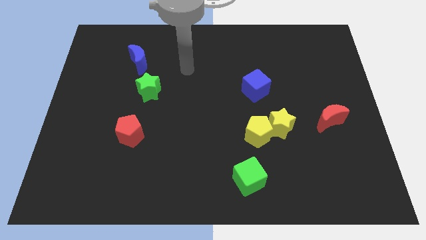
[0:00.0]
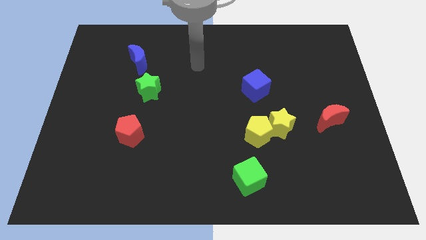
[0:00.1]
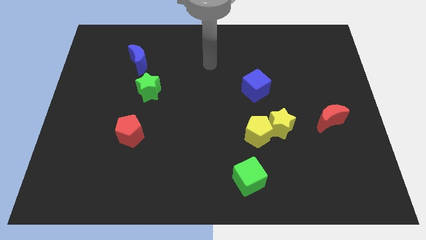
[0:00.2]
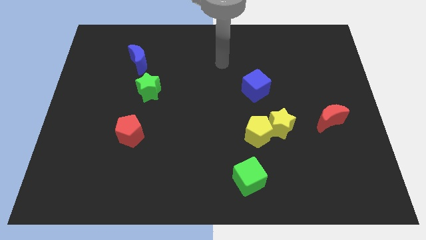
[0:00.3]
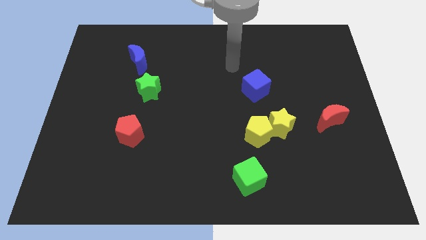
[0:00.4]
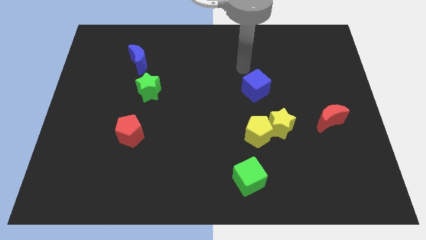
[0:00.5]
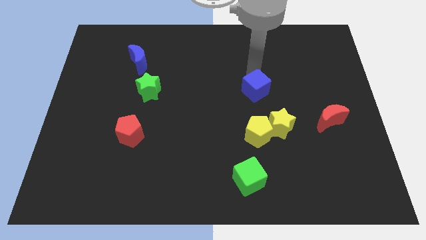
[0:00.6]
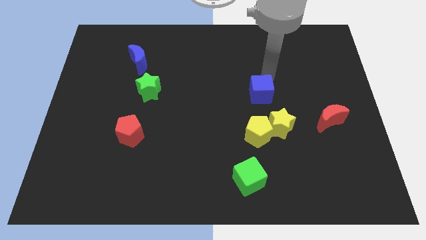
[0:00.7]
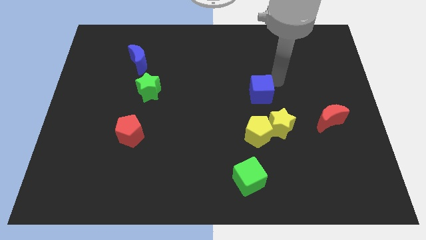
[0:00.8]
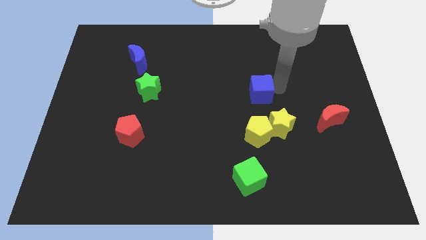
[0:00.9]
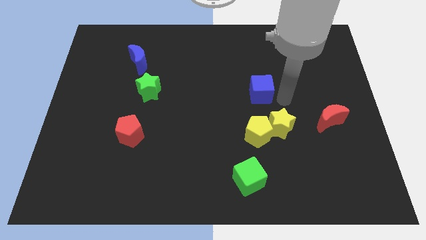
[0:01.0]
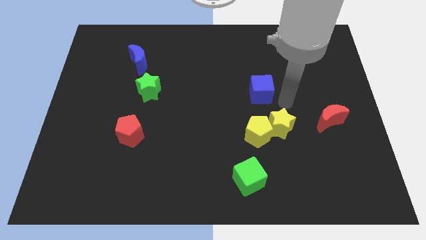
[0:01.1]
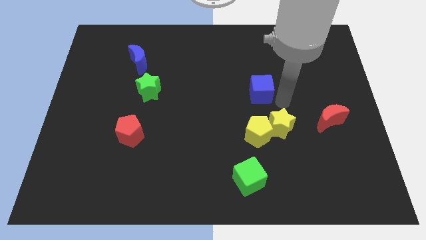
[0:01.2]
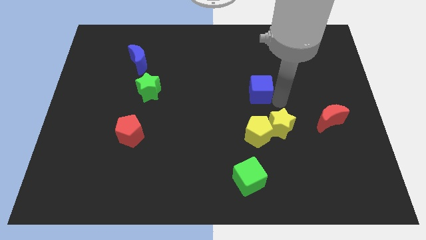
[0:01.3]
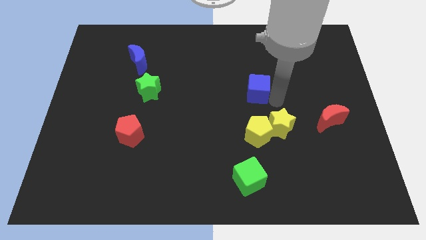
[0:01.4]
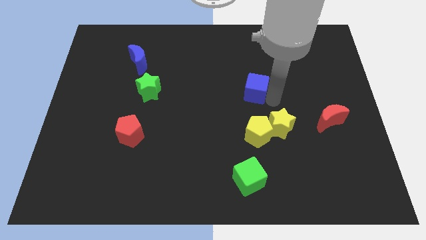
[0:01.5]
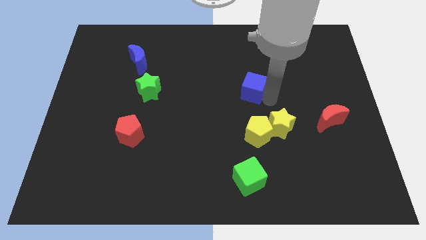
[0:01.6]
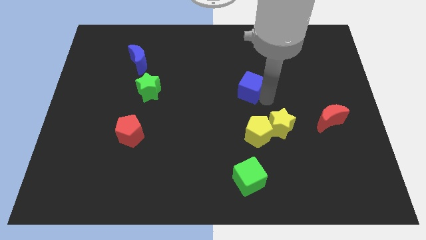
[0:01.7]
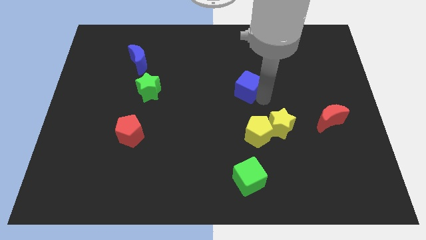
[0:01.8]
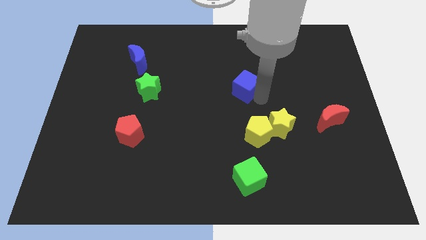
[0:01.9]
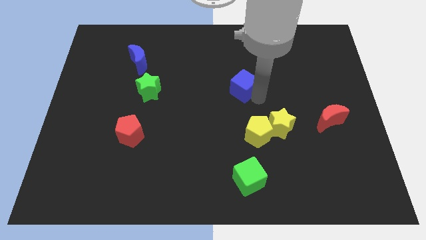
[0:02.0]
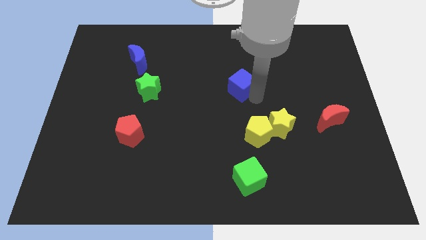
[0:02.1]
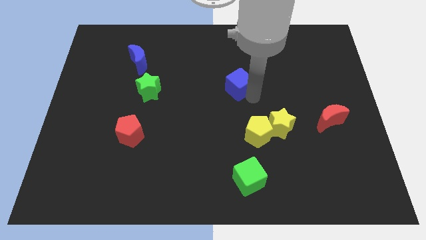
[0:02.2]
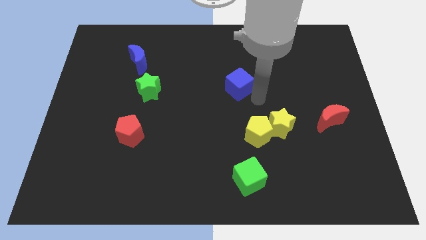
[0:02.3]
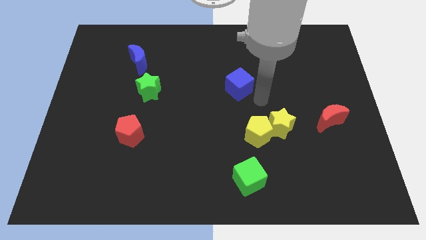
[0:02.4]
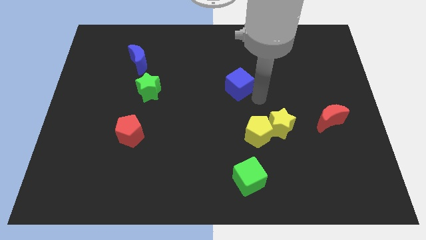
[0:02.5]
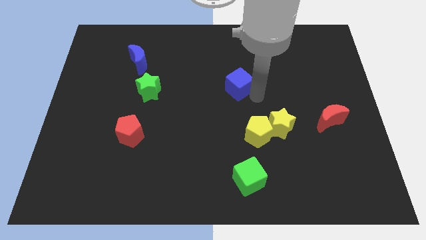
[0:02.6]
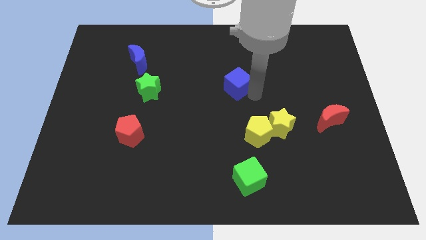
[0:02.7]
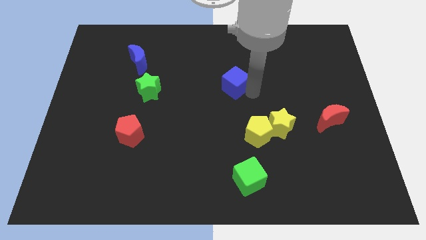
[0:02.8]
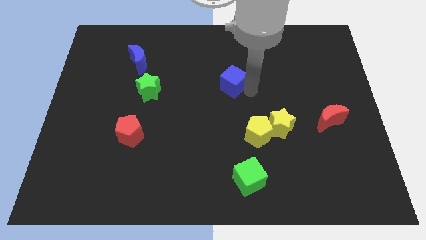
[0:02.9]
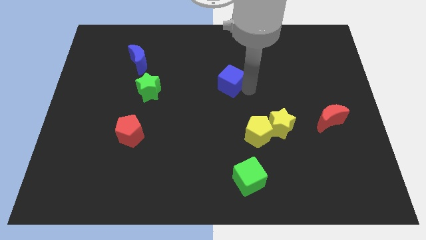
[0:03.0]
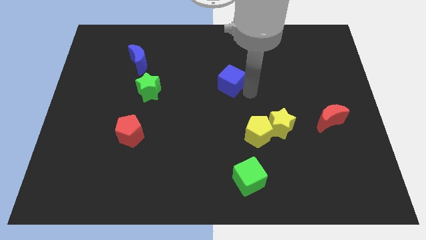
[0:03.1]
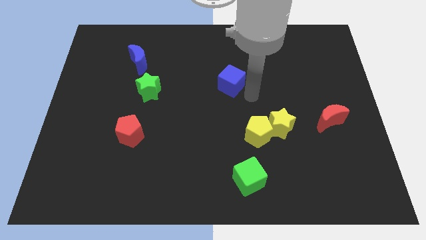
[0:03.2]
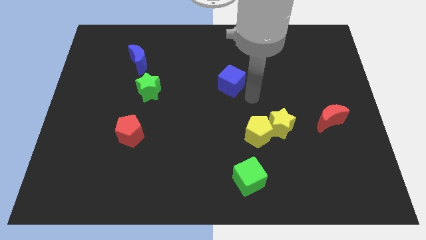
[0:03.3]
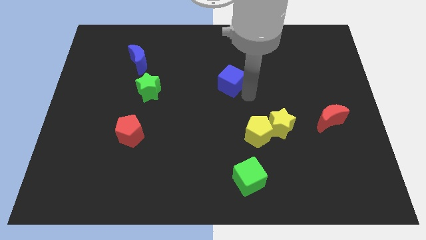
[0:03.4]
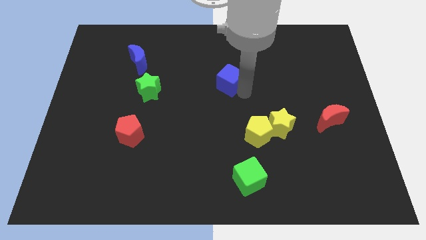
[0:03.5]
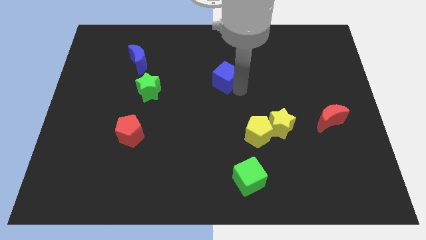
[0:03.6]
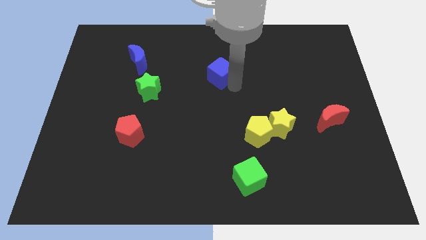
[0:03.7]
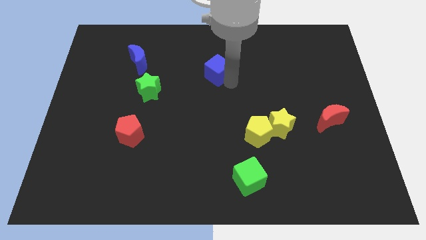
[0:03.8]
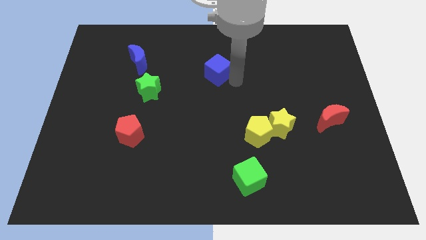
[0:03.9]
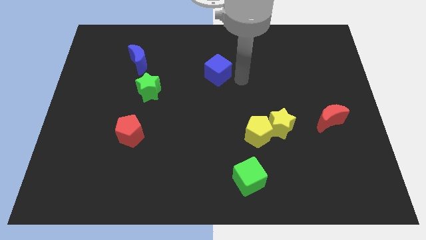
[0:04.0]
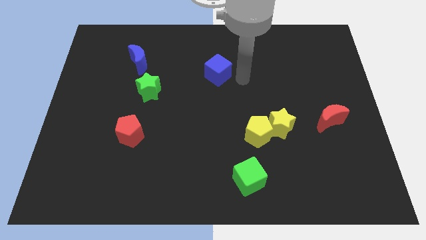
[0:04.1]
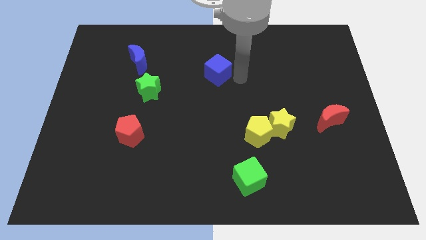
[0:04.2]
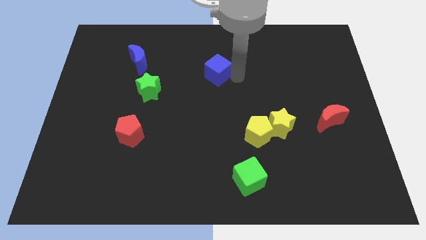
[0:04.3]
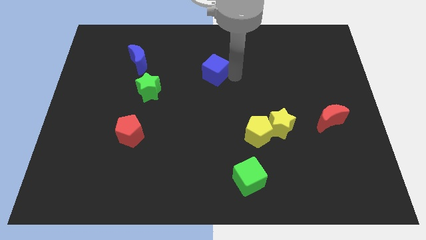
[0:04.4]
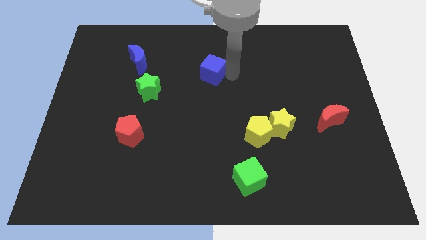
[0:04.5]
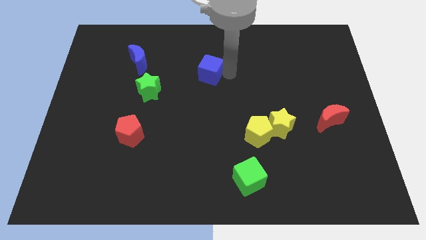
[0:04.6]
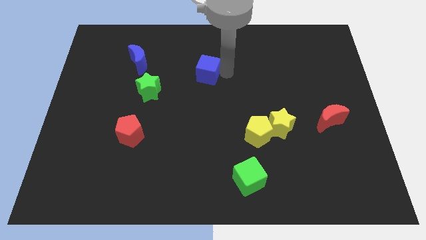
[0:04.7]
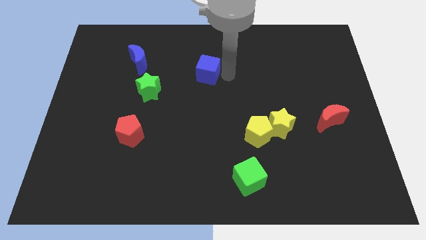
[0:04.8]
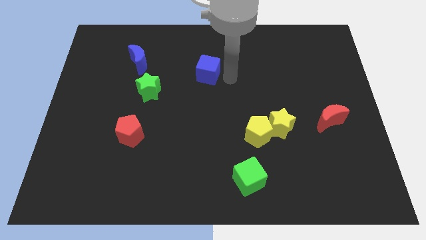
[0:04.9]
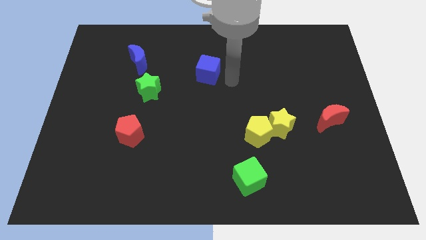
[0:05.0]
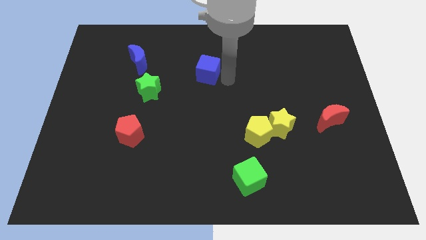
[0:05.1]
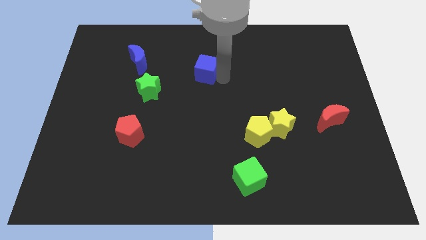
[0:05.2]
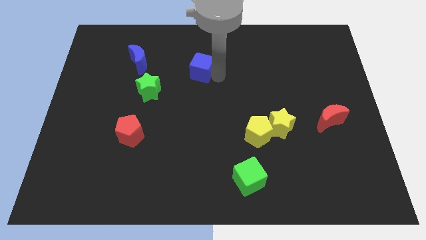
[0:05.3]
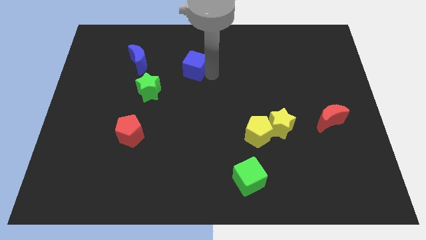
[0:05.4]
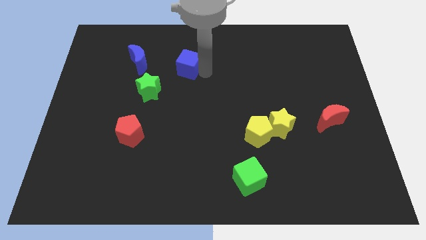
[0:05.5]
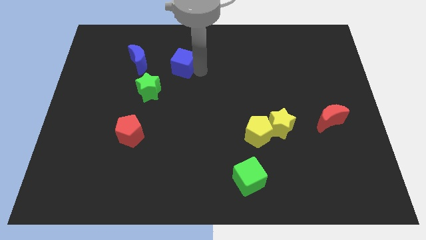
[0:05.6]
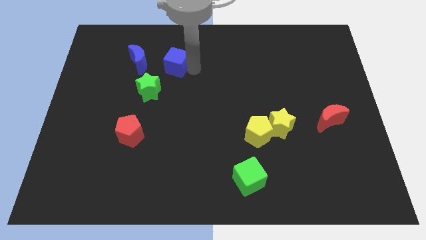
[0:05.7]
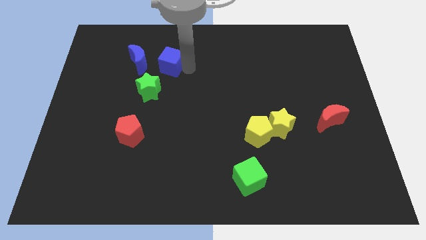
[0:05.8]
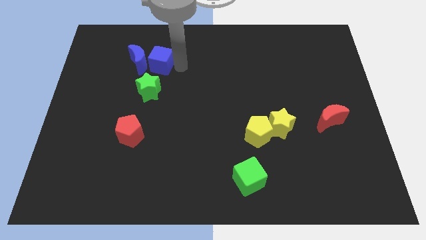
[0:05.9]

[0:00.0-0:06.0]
move the blue cube next to the blue moon

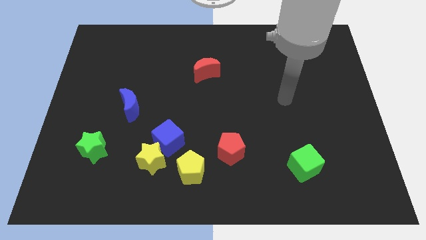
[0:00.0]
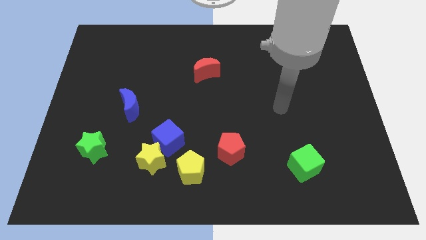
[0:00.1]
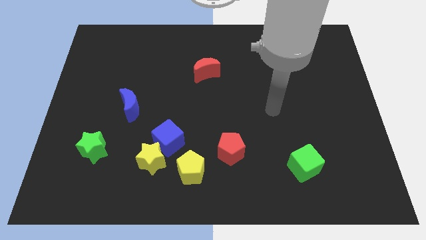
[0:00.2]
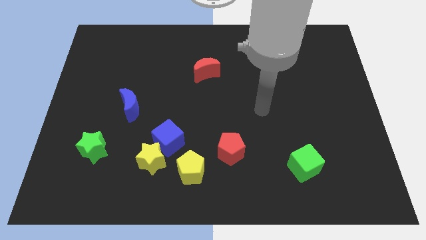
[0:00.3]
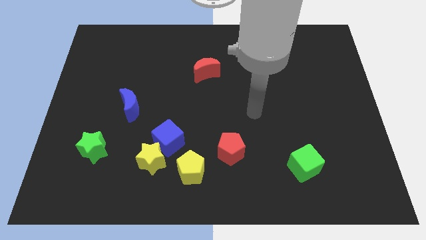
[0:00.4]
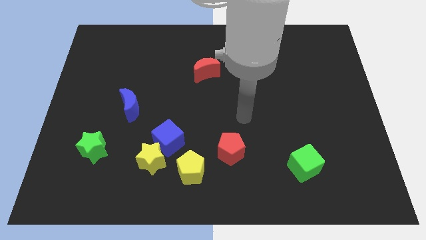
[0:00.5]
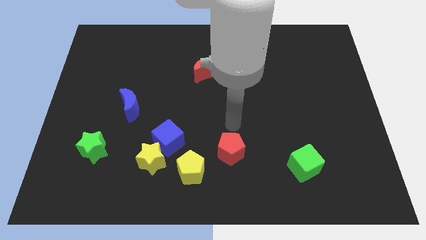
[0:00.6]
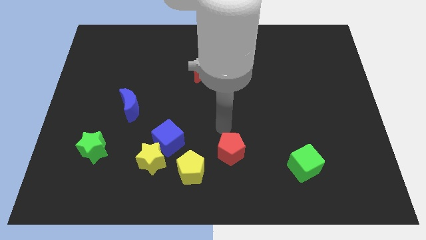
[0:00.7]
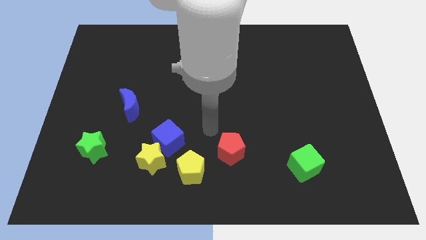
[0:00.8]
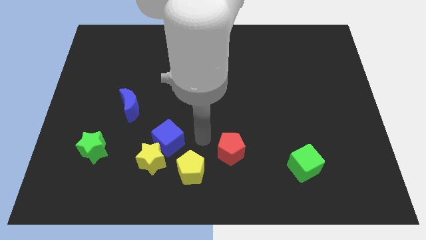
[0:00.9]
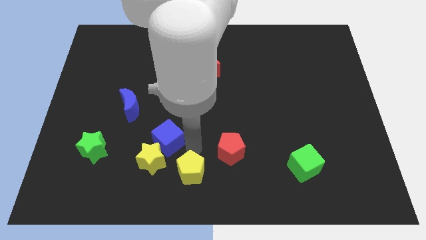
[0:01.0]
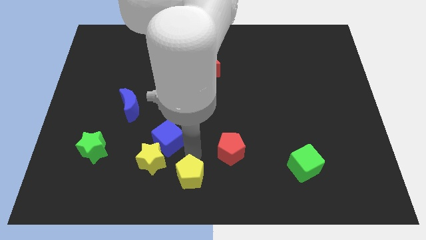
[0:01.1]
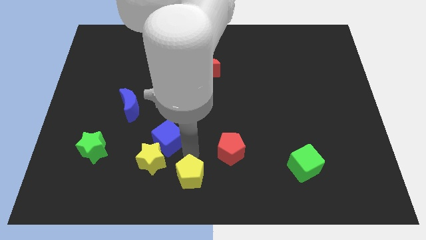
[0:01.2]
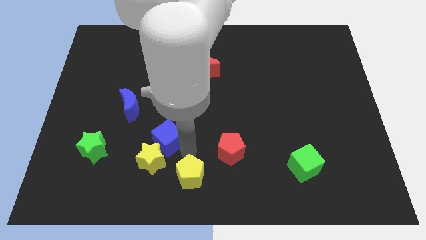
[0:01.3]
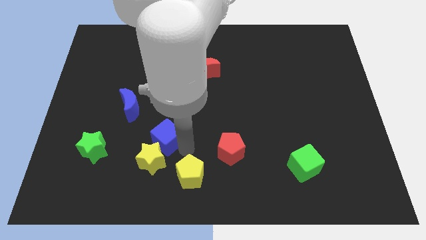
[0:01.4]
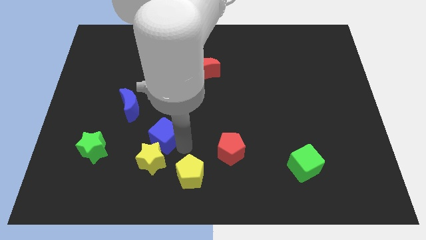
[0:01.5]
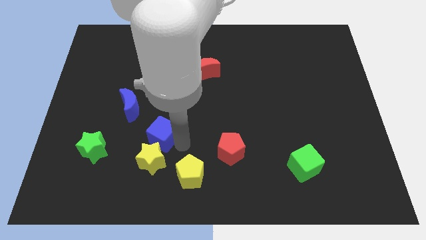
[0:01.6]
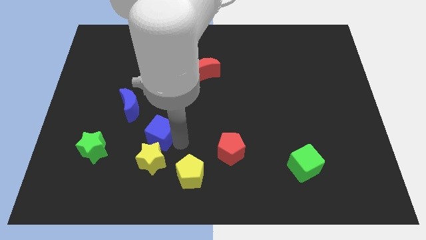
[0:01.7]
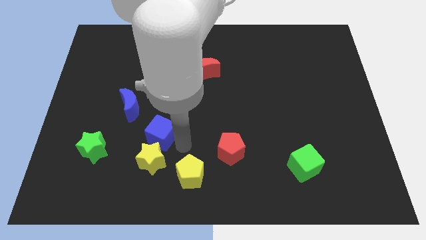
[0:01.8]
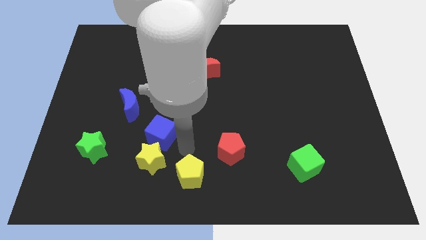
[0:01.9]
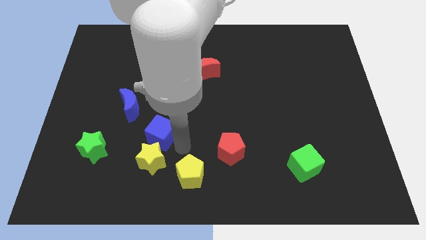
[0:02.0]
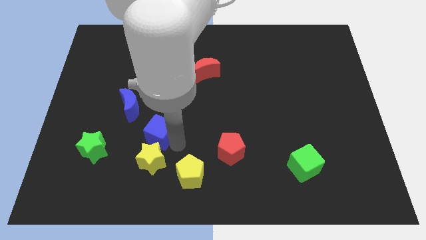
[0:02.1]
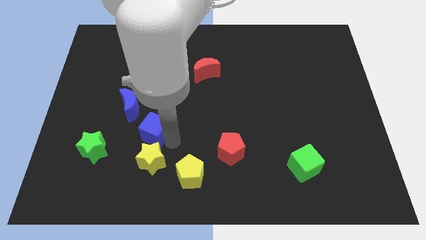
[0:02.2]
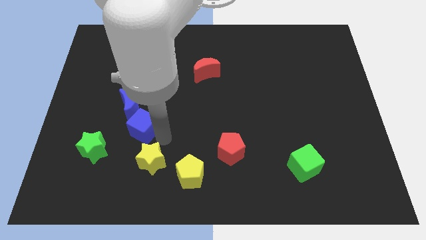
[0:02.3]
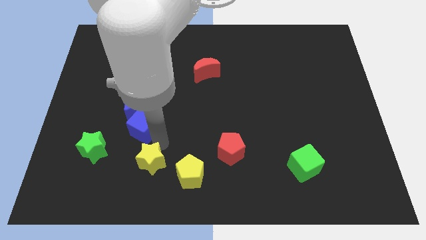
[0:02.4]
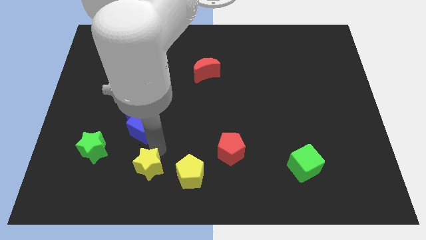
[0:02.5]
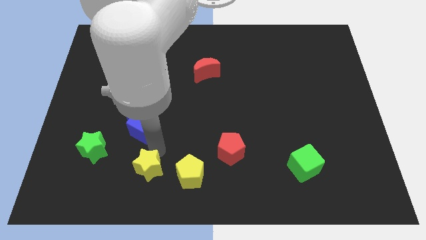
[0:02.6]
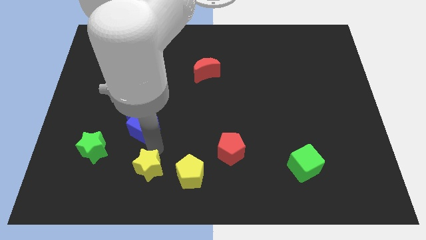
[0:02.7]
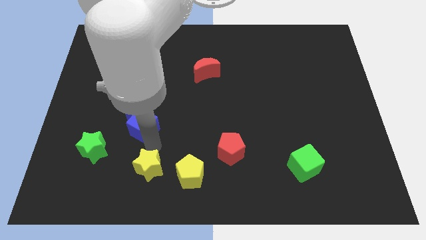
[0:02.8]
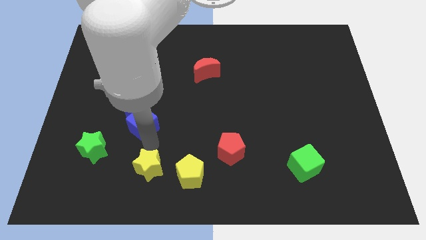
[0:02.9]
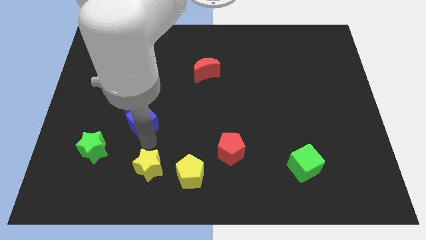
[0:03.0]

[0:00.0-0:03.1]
move the blue cube close to the blue moon
